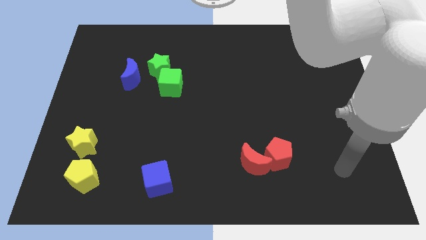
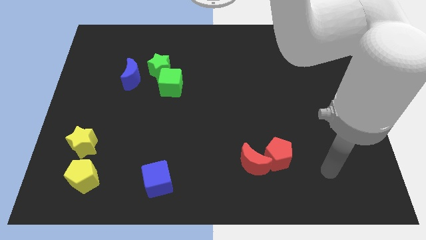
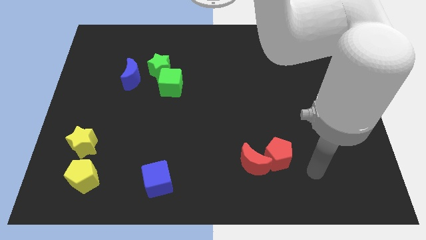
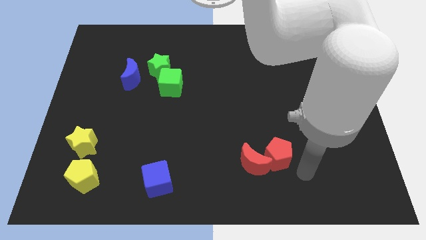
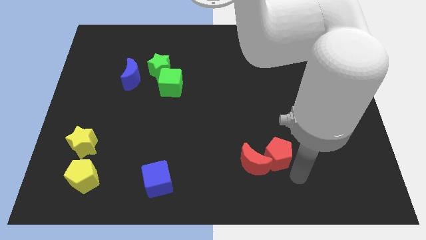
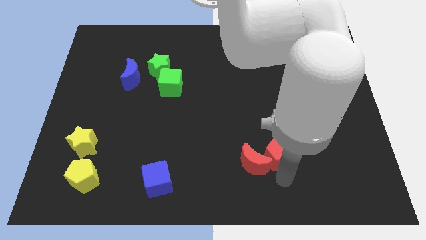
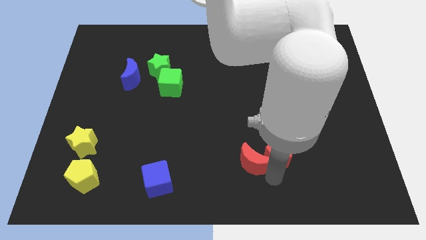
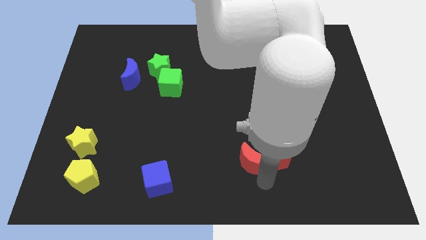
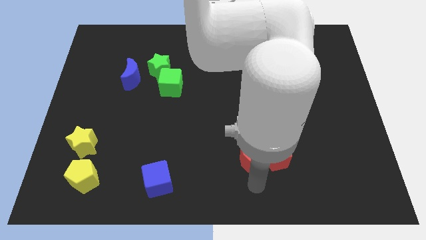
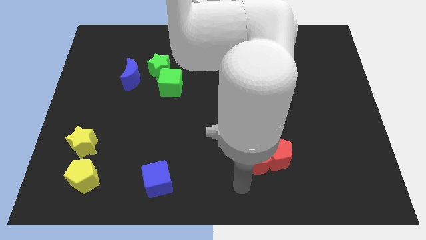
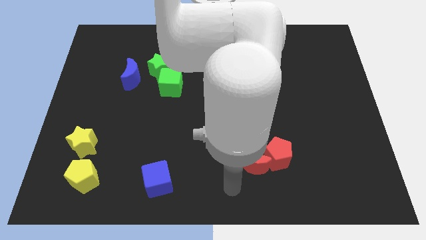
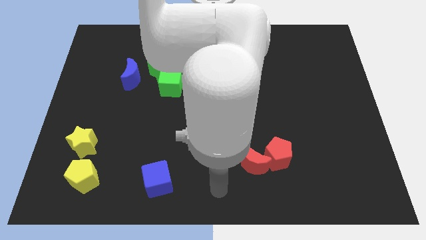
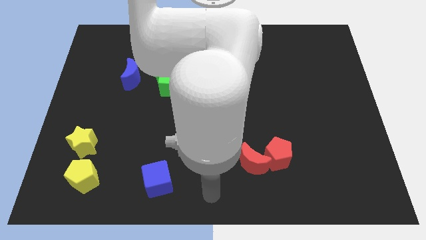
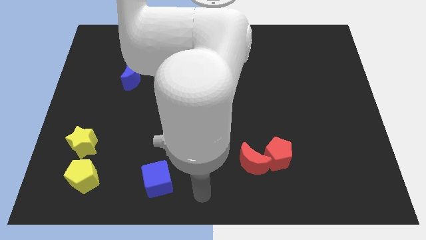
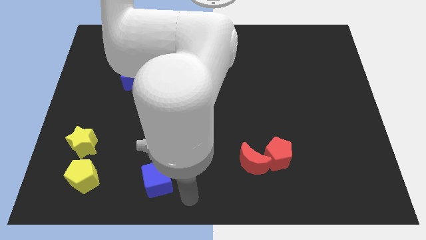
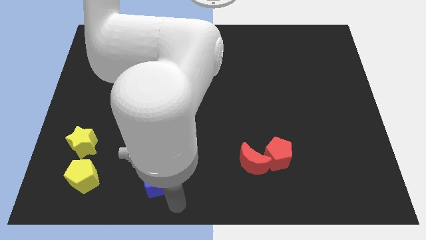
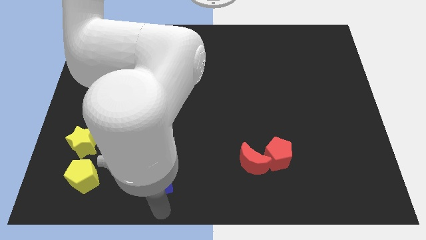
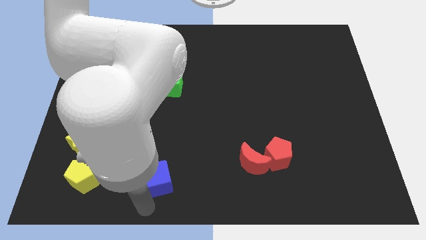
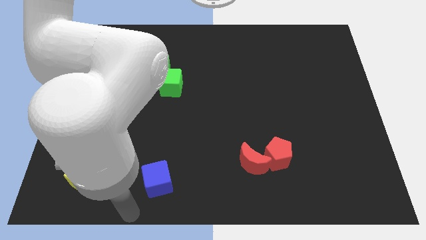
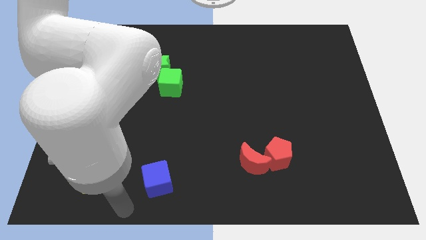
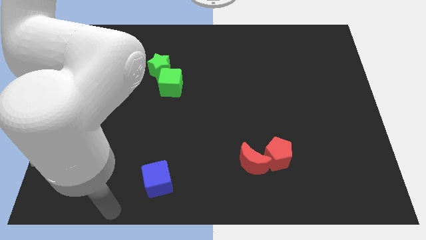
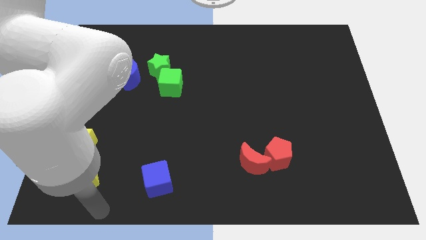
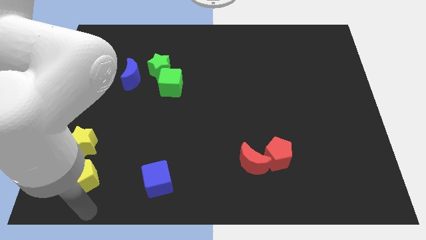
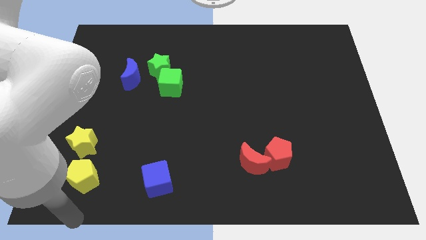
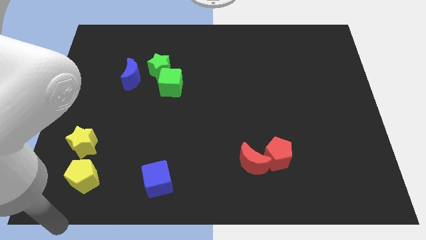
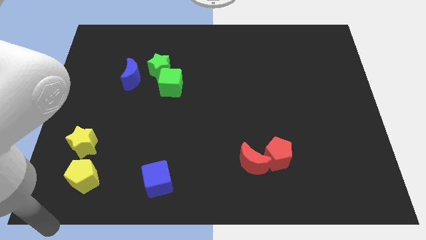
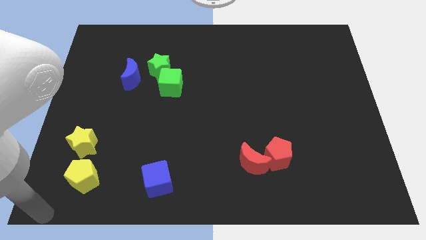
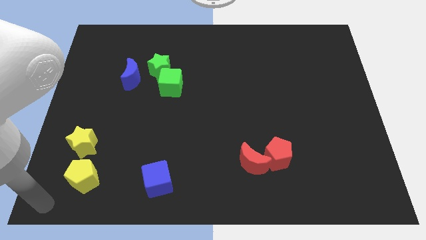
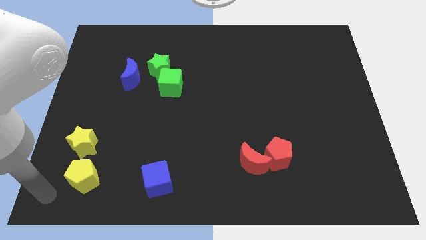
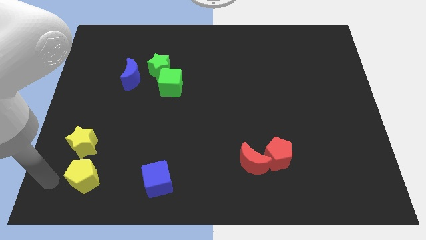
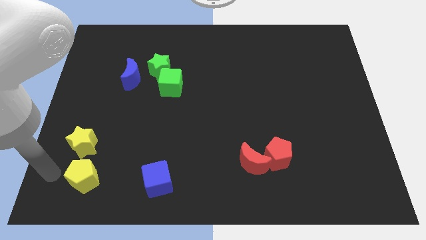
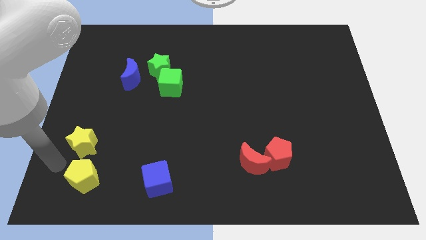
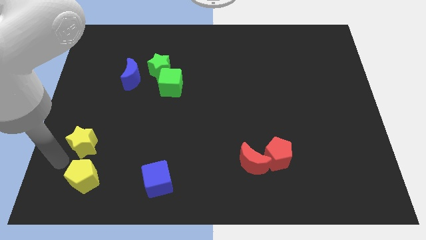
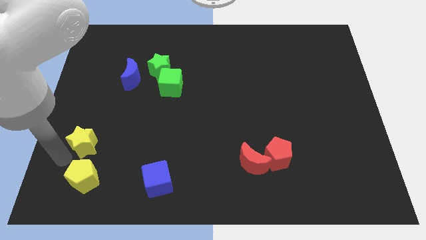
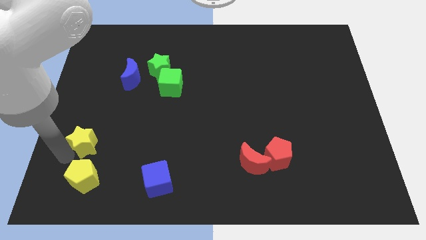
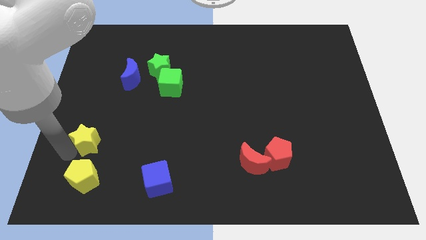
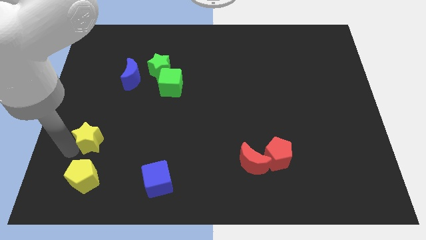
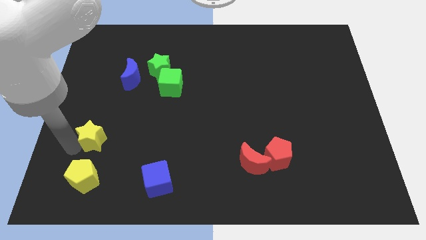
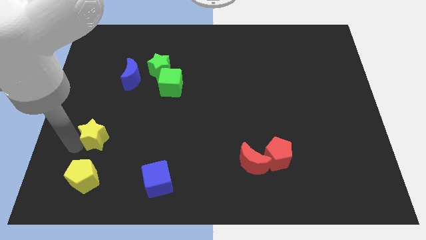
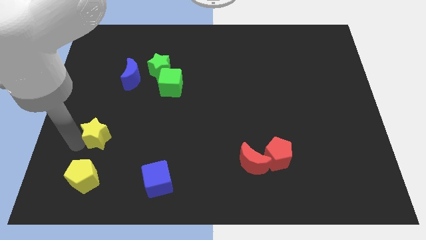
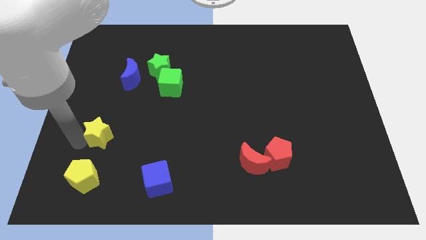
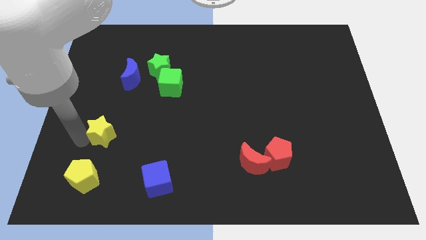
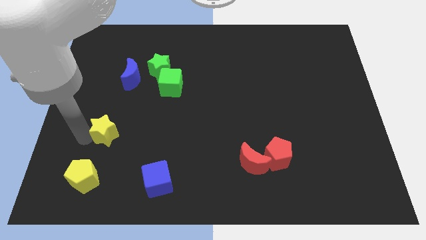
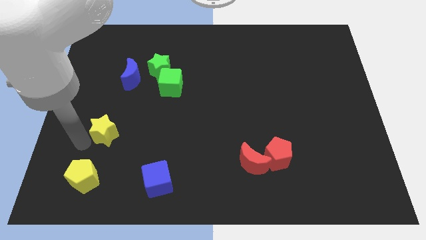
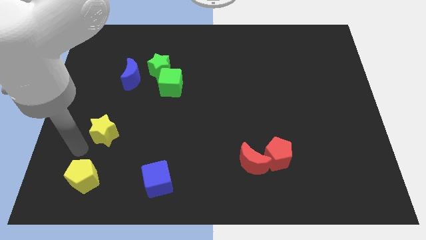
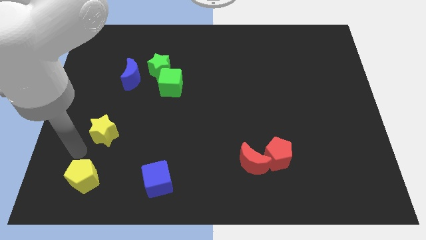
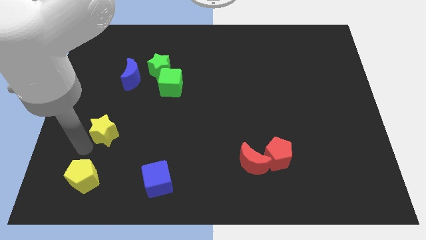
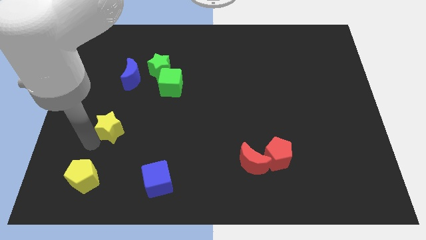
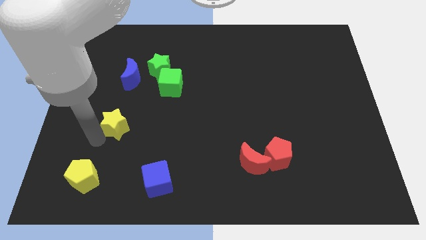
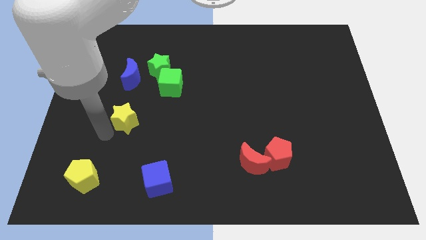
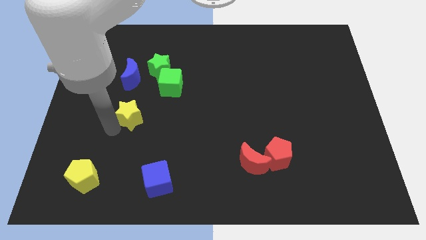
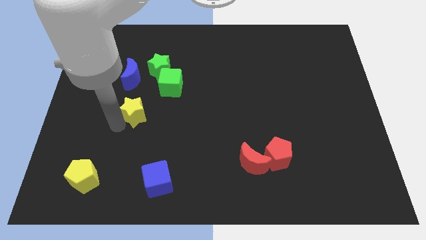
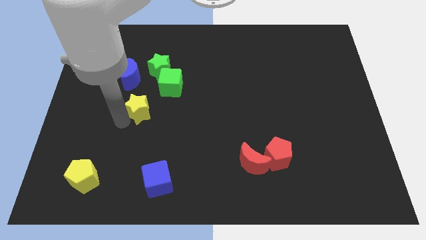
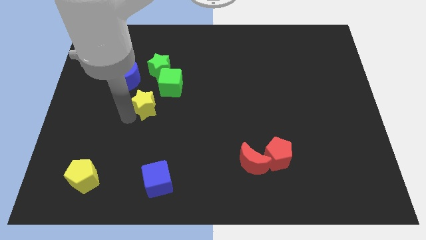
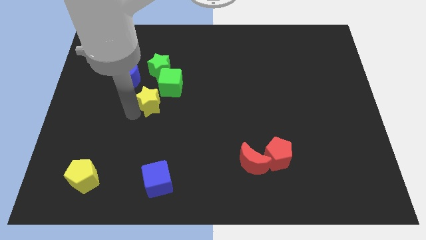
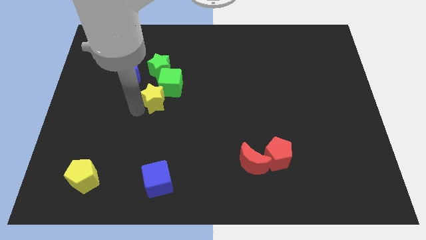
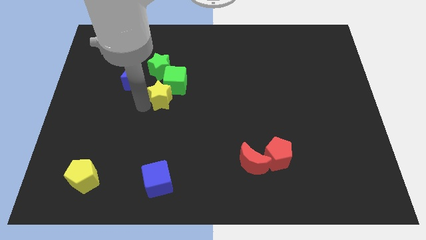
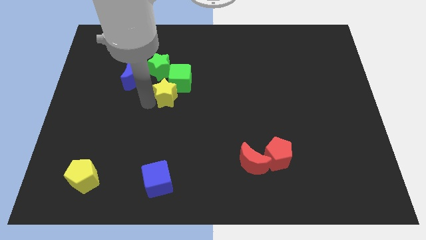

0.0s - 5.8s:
push the yellow star to the bottom right of the green star

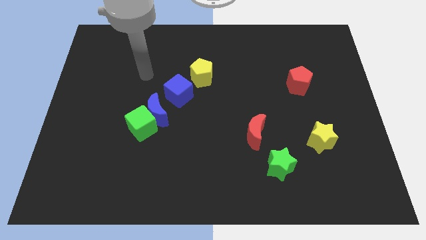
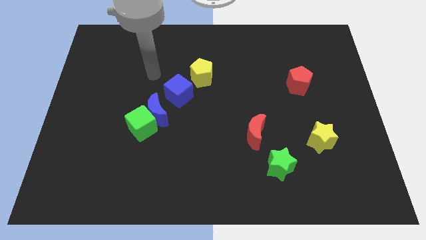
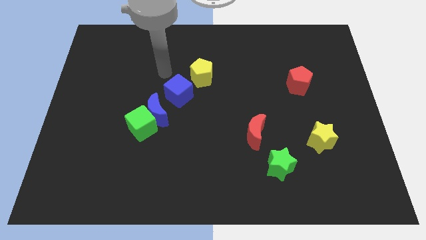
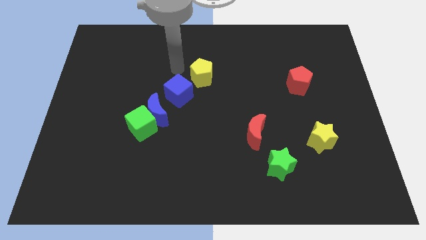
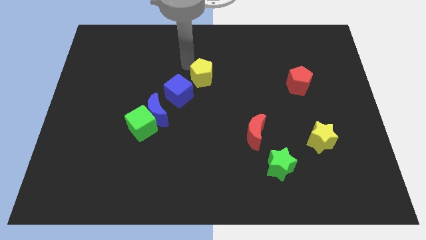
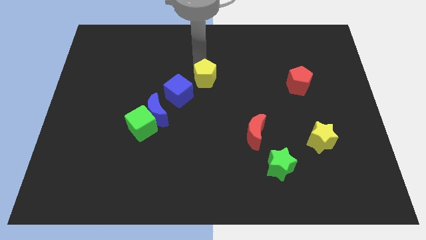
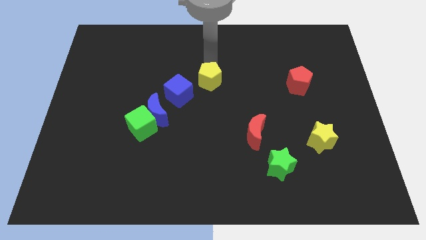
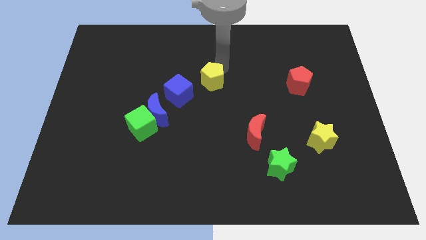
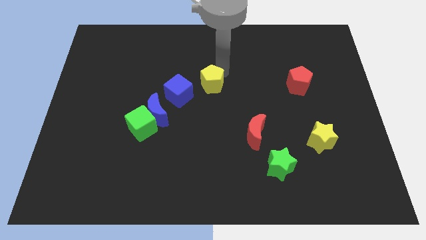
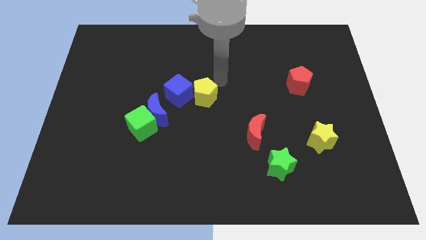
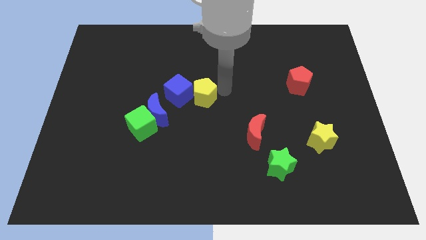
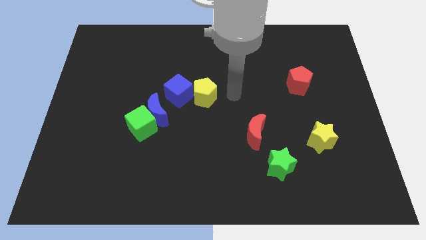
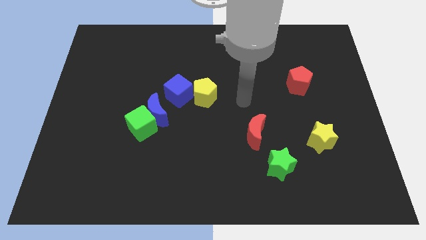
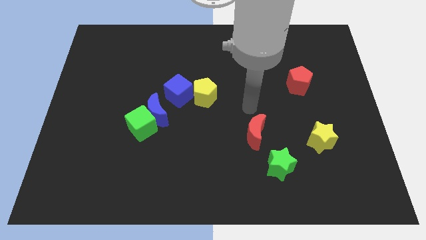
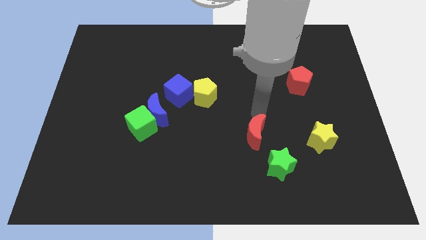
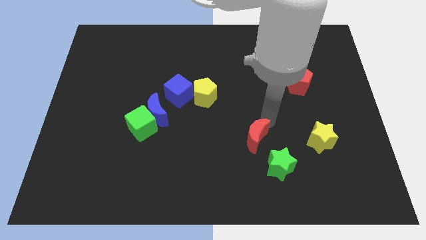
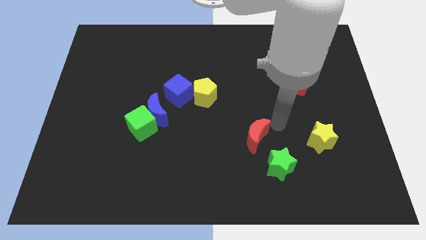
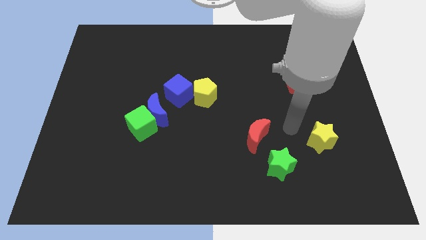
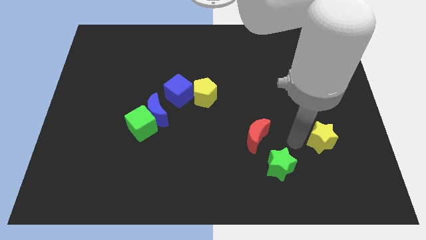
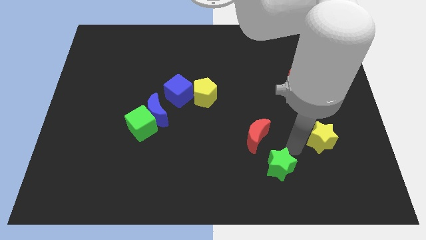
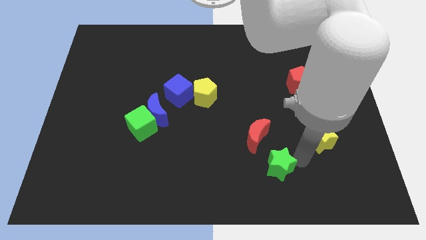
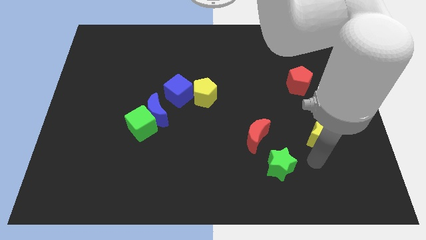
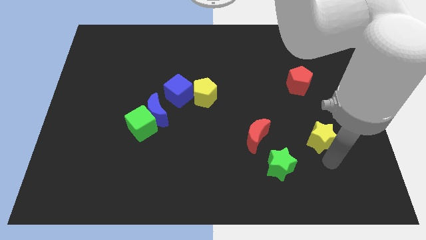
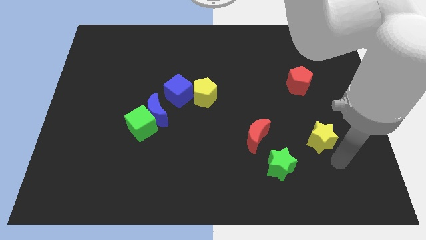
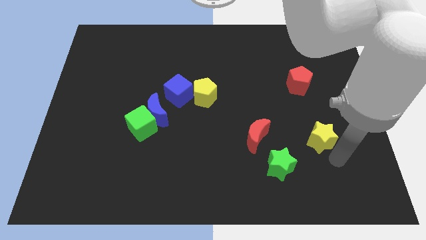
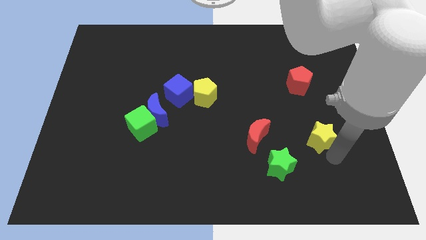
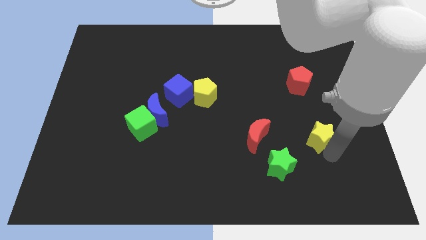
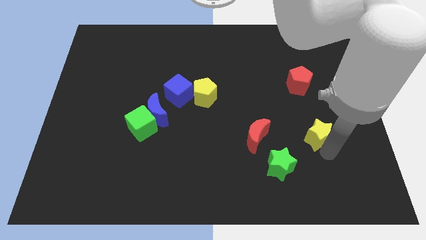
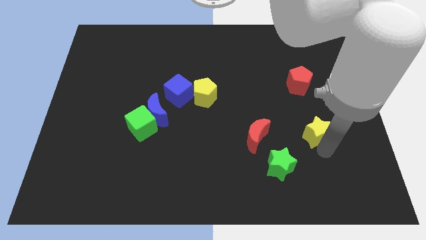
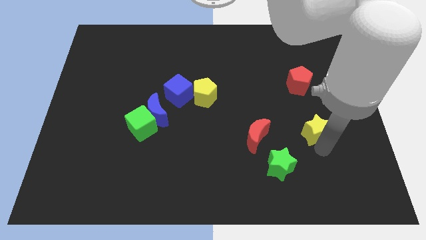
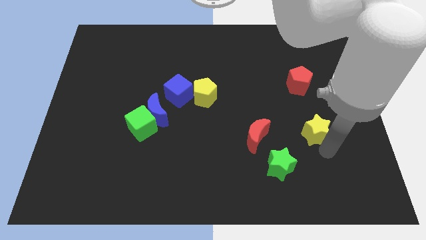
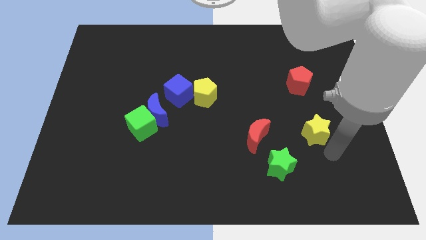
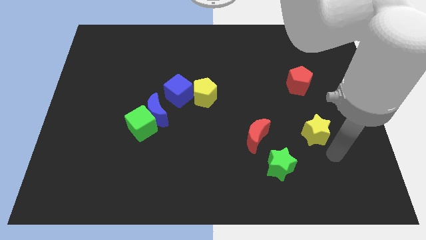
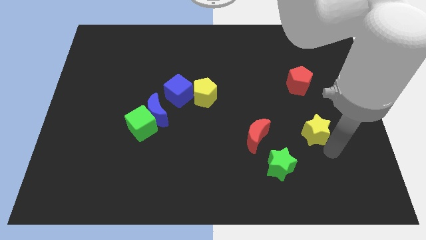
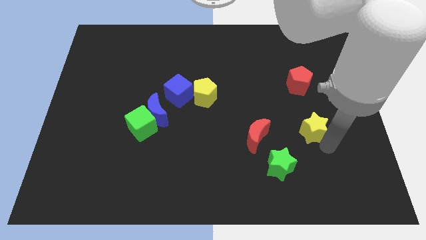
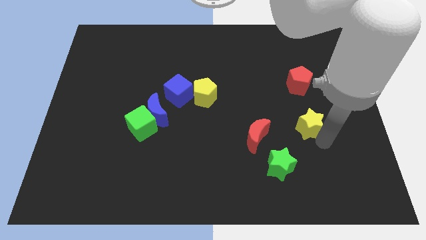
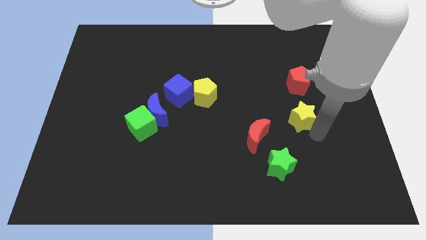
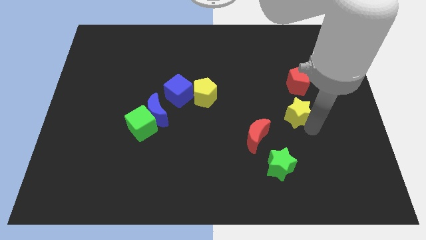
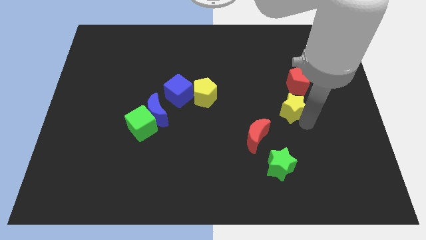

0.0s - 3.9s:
push the yellow star to the bottom left of the red pentagon
